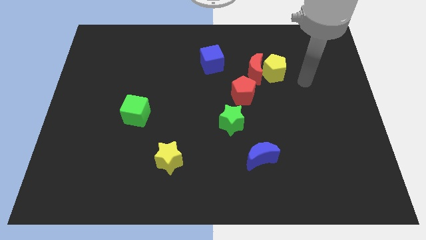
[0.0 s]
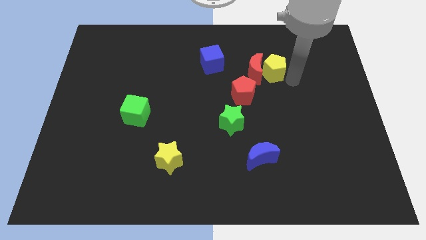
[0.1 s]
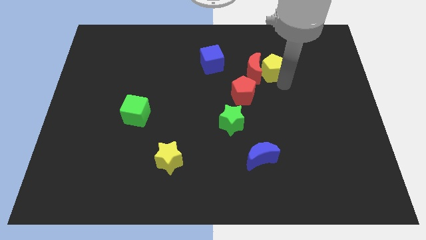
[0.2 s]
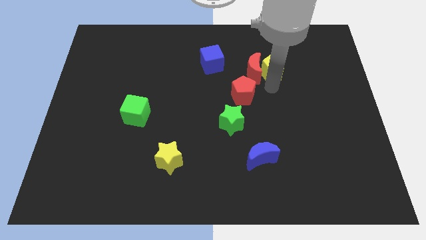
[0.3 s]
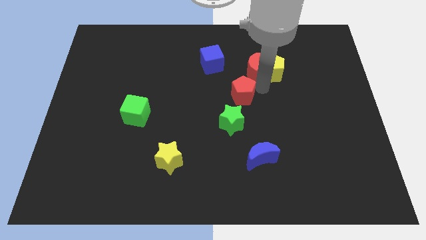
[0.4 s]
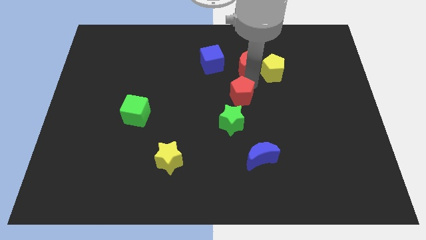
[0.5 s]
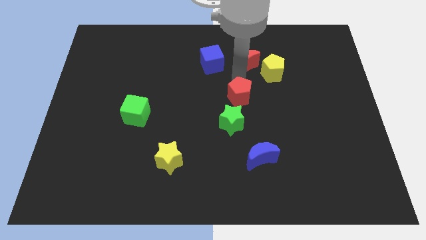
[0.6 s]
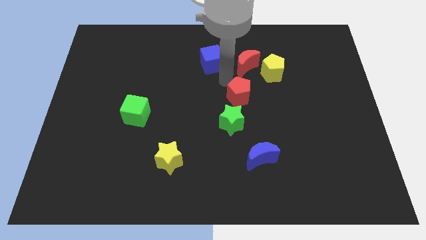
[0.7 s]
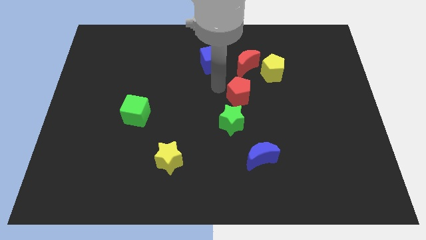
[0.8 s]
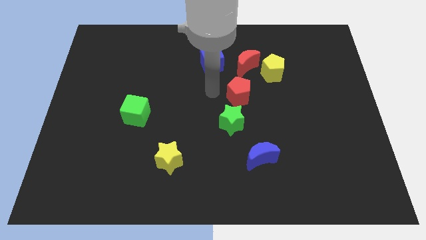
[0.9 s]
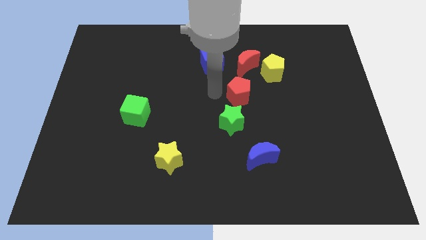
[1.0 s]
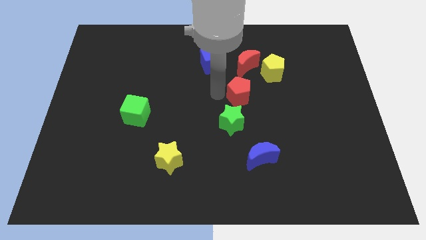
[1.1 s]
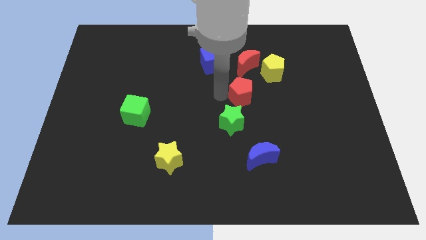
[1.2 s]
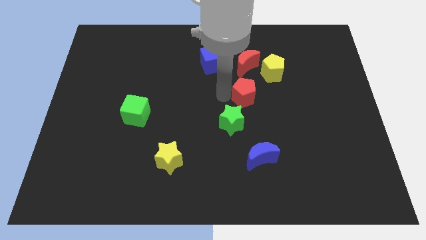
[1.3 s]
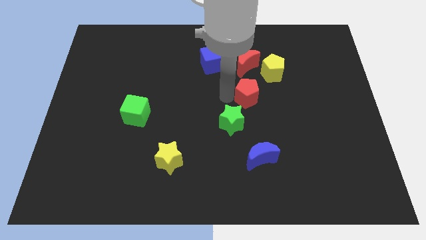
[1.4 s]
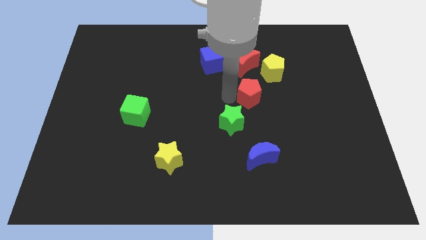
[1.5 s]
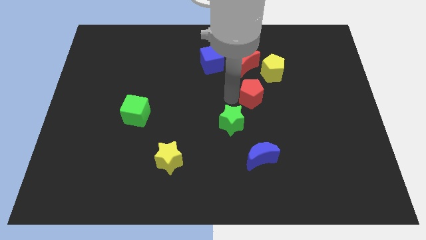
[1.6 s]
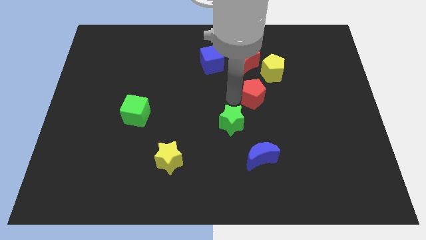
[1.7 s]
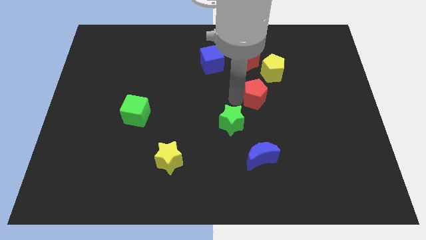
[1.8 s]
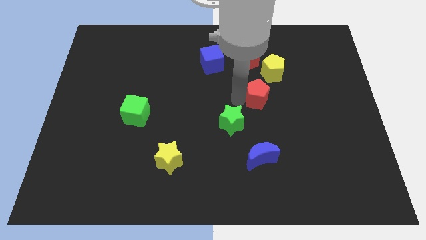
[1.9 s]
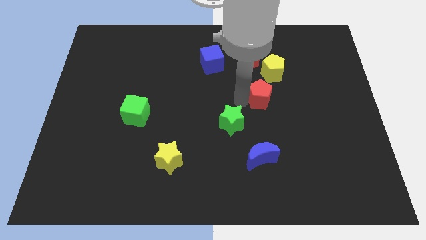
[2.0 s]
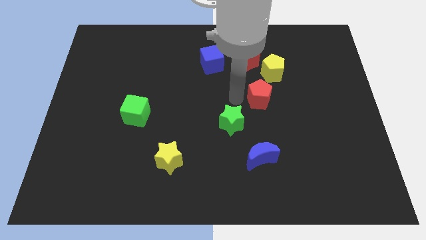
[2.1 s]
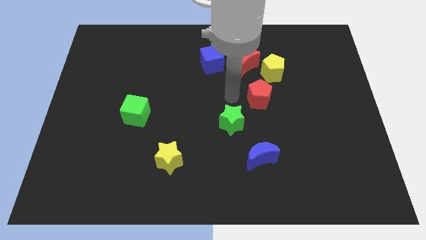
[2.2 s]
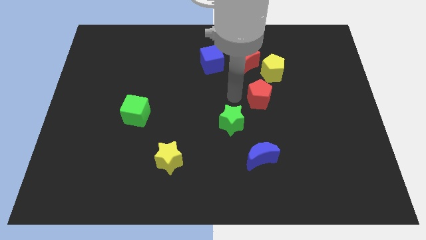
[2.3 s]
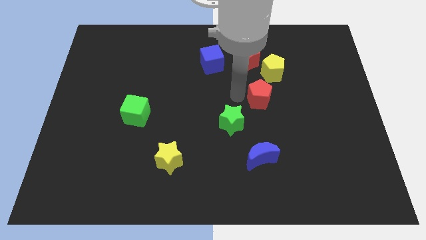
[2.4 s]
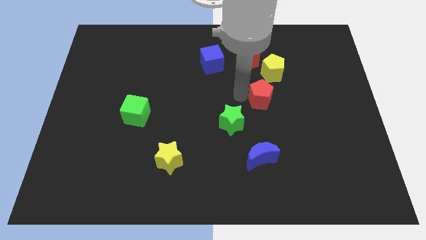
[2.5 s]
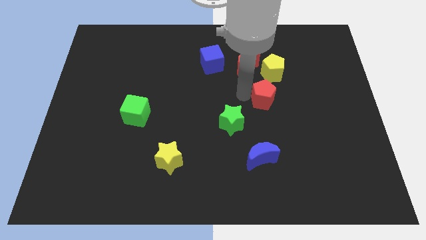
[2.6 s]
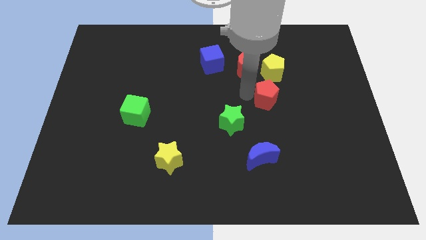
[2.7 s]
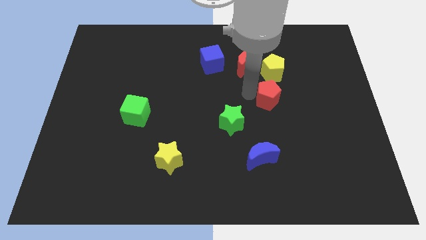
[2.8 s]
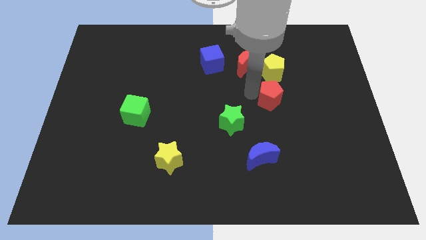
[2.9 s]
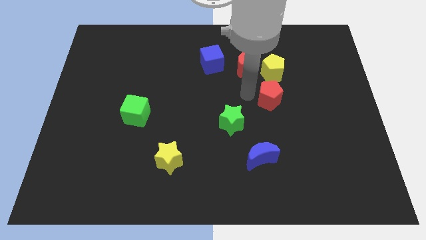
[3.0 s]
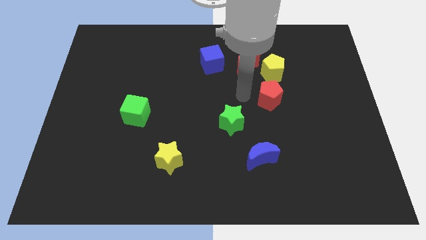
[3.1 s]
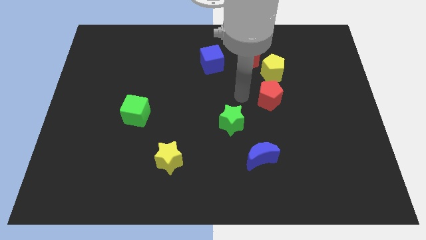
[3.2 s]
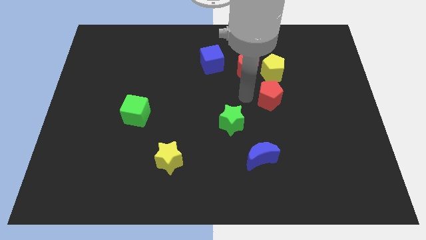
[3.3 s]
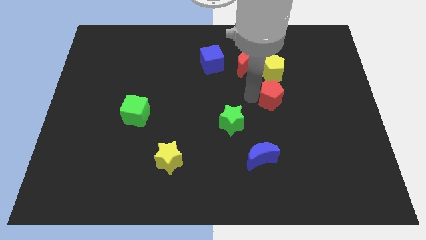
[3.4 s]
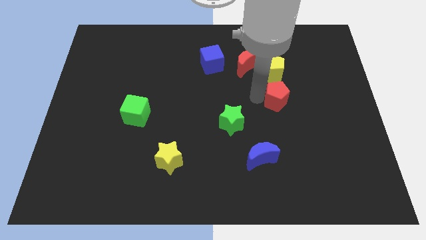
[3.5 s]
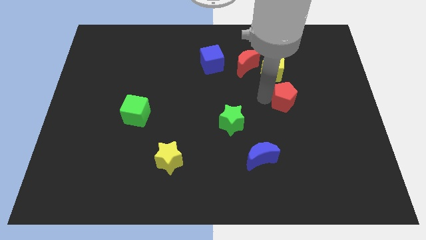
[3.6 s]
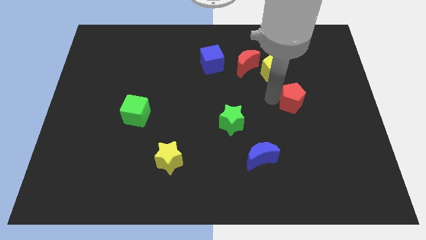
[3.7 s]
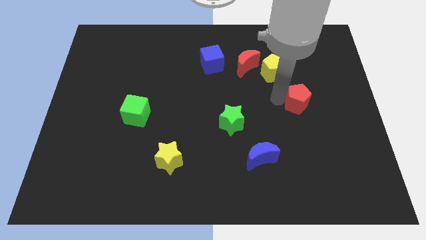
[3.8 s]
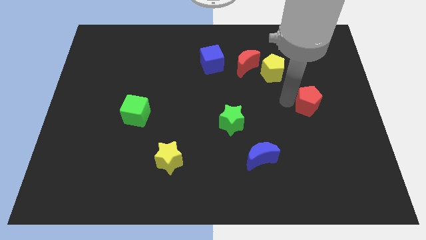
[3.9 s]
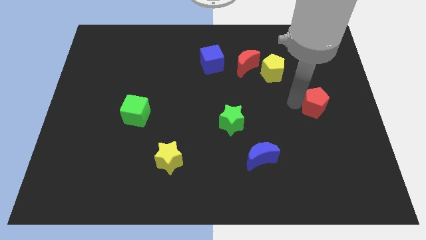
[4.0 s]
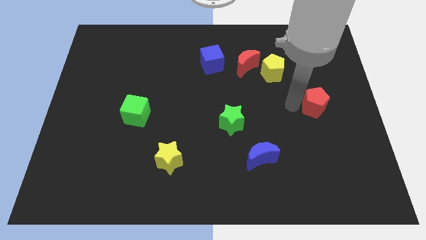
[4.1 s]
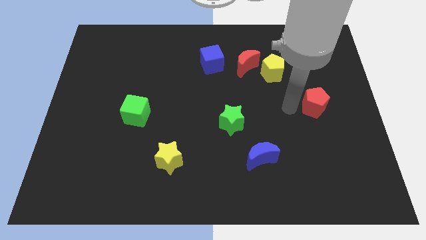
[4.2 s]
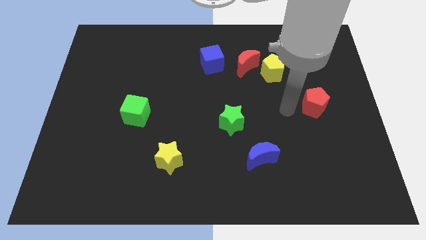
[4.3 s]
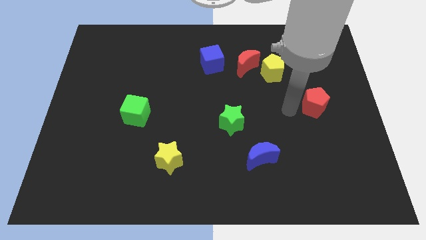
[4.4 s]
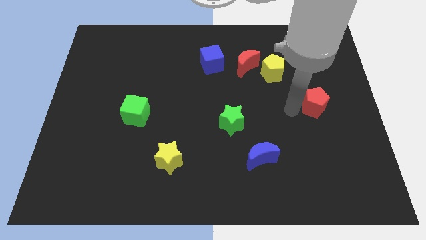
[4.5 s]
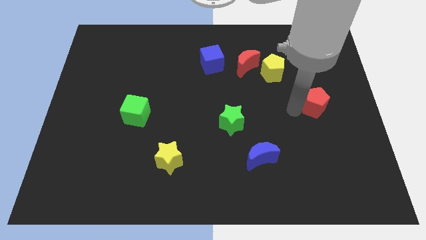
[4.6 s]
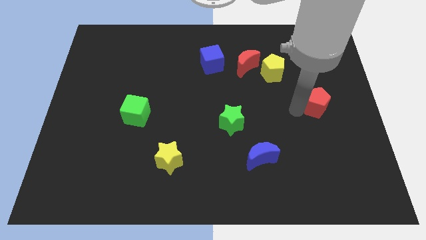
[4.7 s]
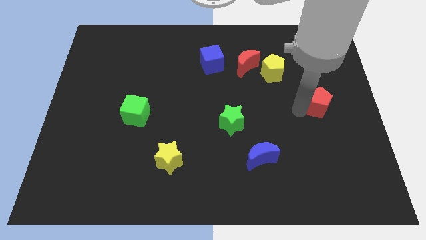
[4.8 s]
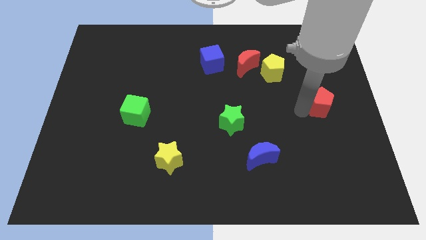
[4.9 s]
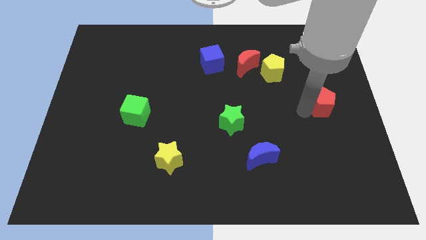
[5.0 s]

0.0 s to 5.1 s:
move the red pentagon to the center right

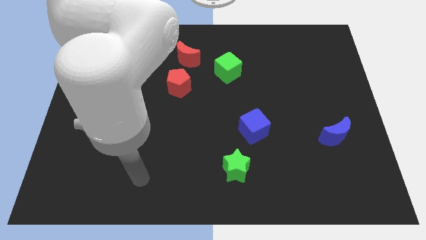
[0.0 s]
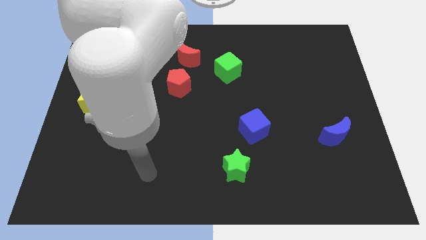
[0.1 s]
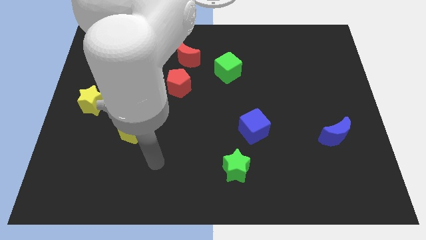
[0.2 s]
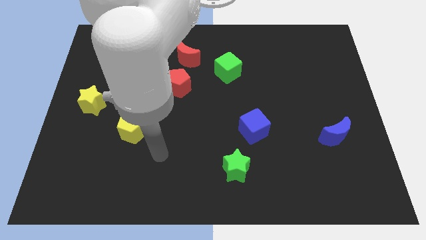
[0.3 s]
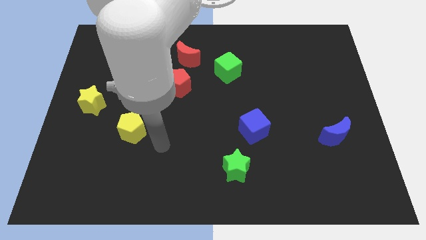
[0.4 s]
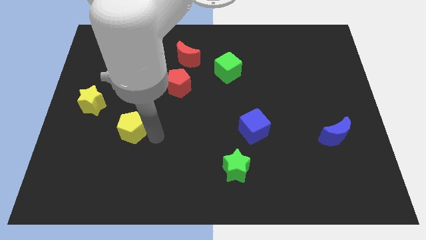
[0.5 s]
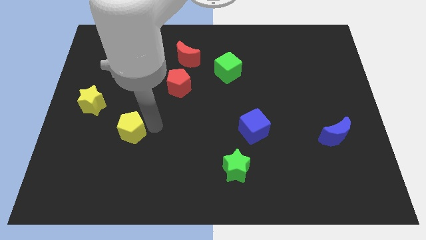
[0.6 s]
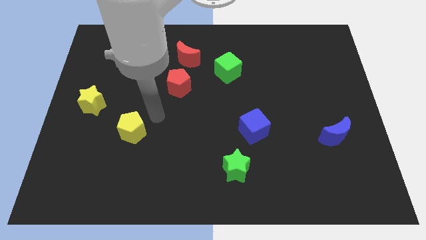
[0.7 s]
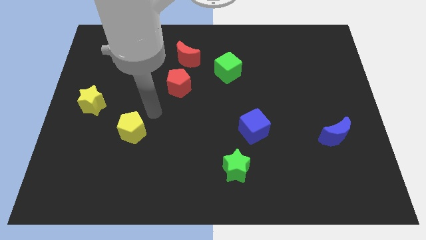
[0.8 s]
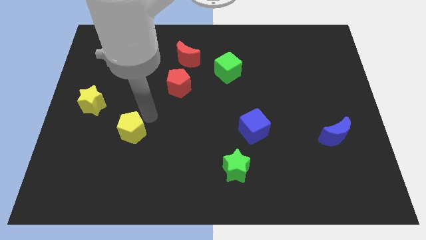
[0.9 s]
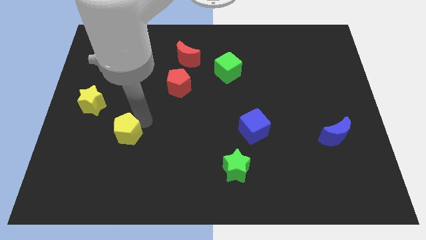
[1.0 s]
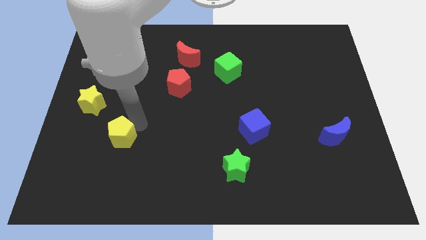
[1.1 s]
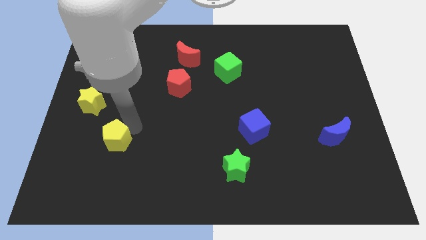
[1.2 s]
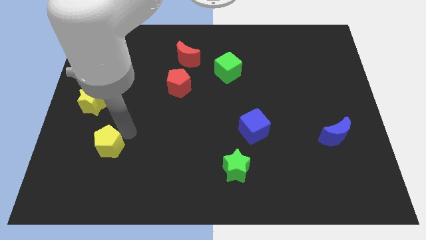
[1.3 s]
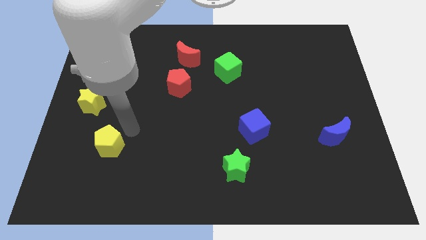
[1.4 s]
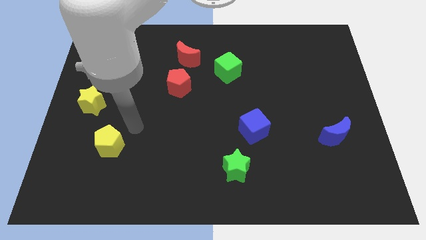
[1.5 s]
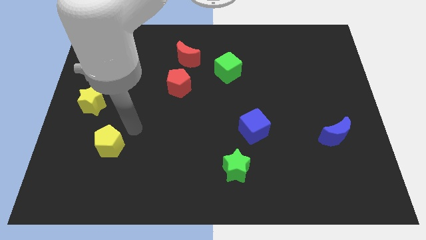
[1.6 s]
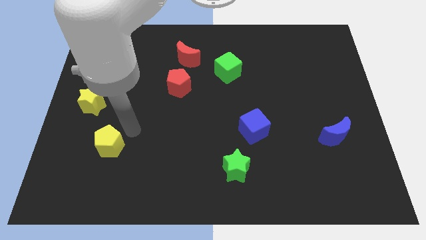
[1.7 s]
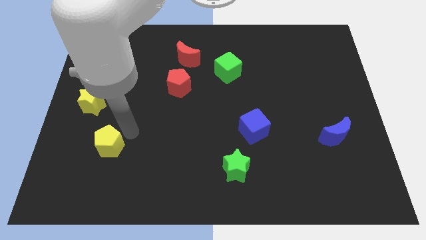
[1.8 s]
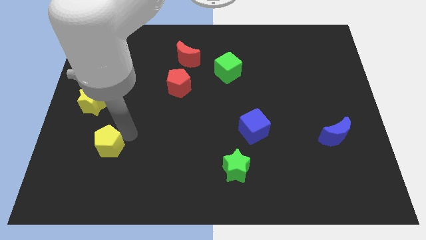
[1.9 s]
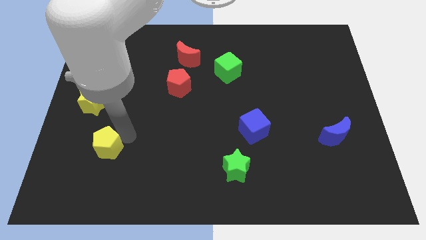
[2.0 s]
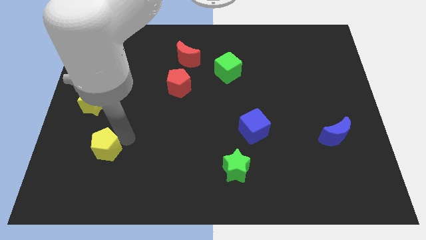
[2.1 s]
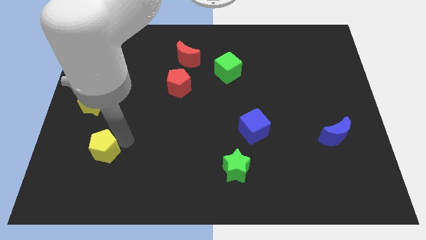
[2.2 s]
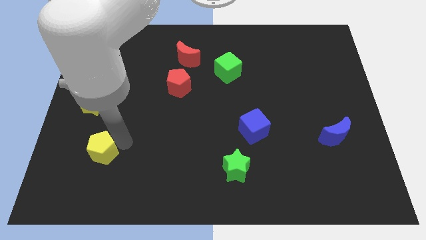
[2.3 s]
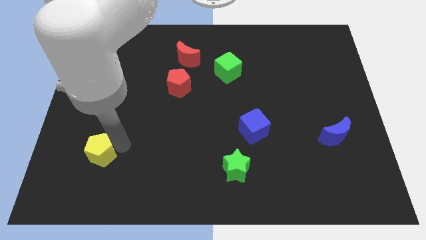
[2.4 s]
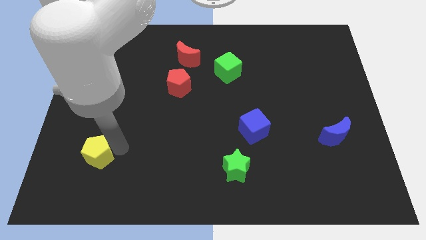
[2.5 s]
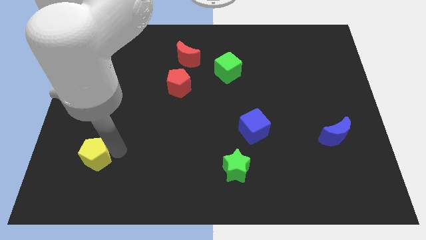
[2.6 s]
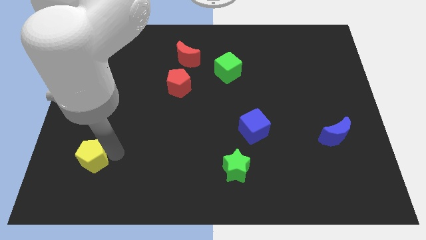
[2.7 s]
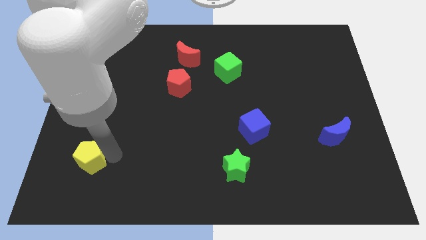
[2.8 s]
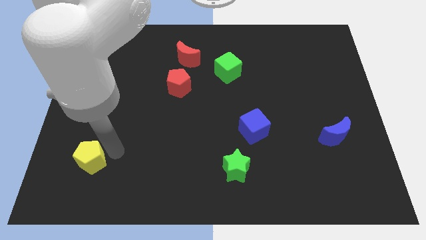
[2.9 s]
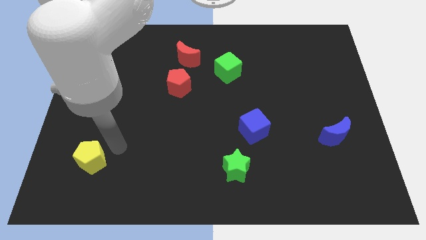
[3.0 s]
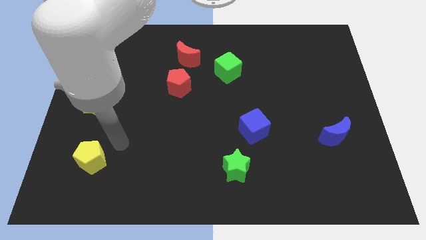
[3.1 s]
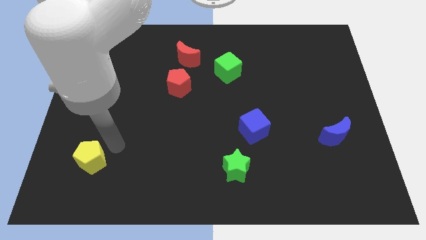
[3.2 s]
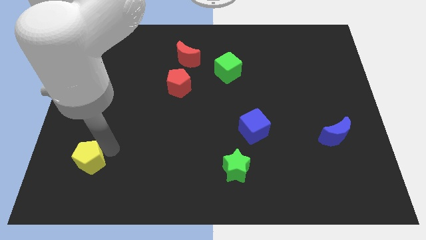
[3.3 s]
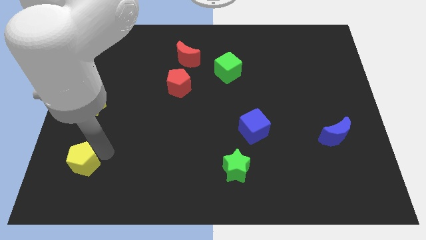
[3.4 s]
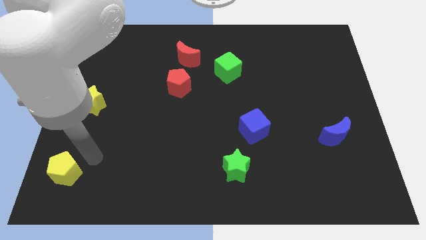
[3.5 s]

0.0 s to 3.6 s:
put the yellow pentagon to the bottom left
